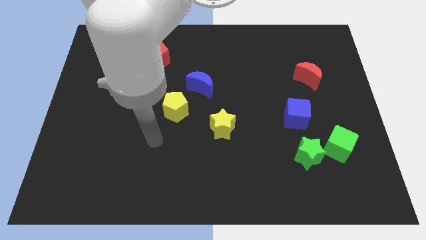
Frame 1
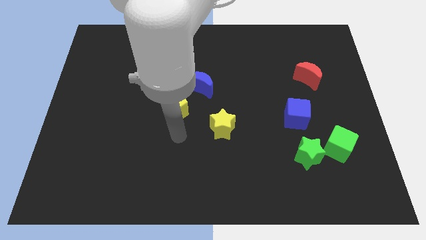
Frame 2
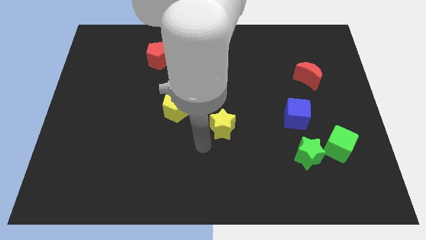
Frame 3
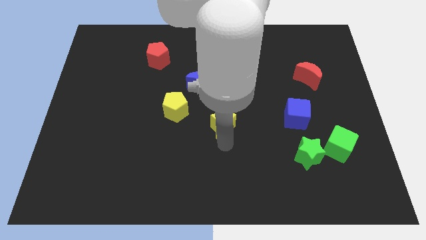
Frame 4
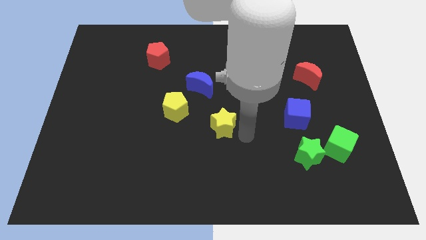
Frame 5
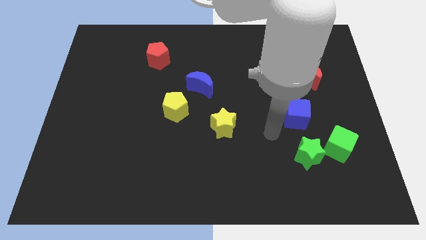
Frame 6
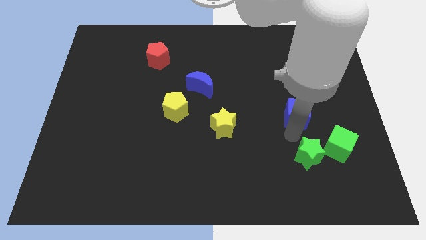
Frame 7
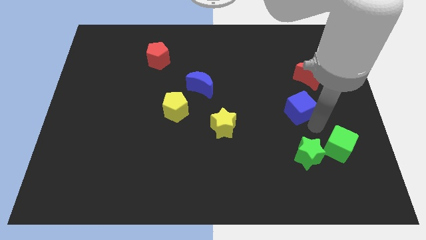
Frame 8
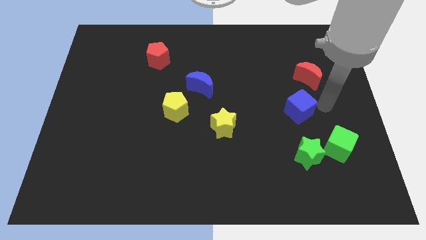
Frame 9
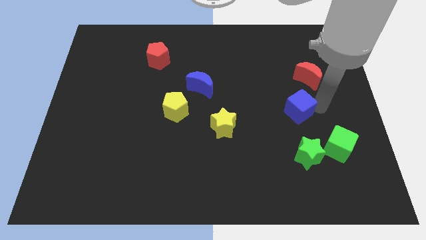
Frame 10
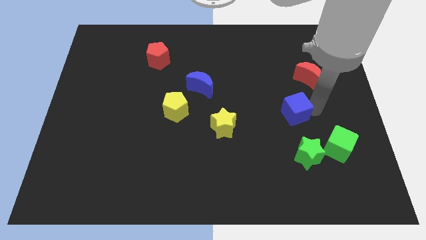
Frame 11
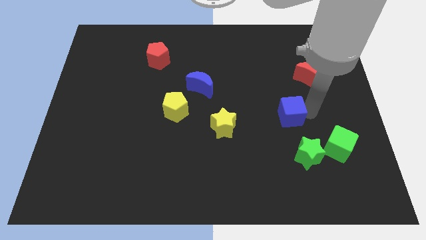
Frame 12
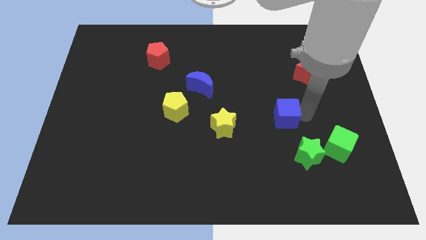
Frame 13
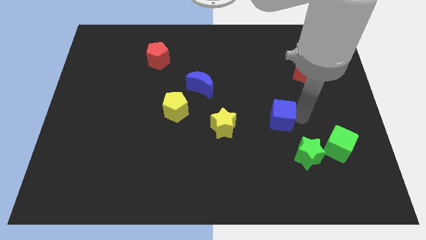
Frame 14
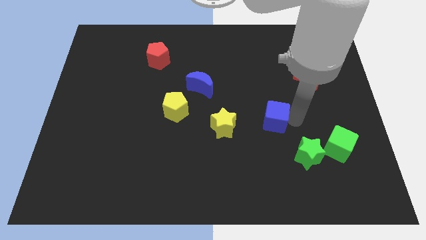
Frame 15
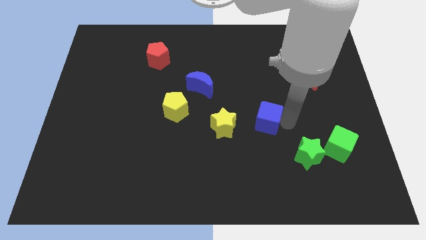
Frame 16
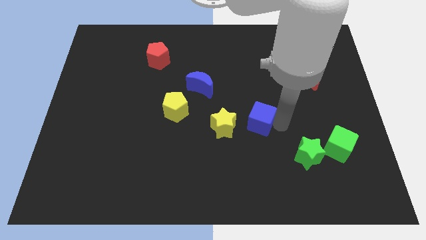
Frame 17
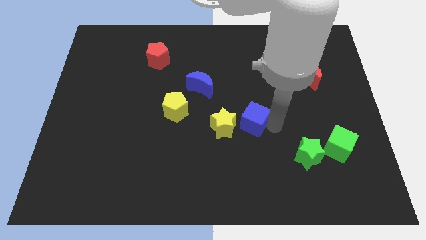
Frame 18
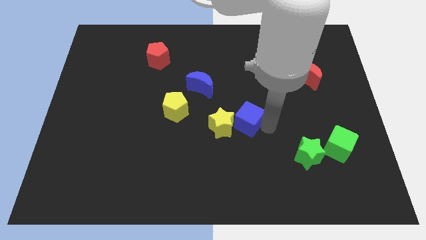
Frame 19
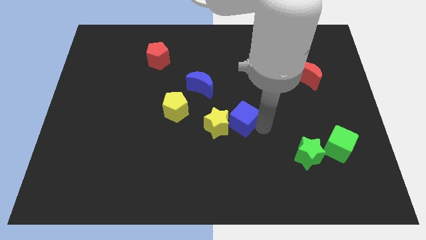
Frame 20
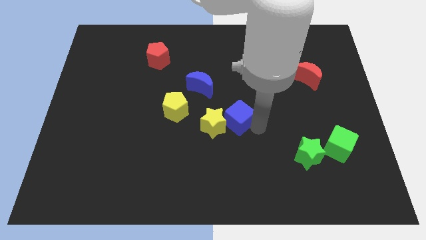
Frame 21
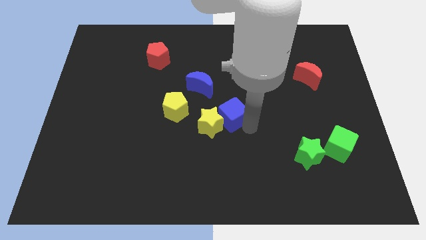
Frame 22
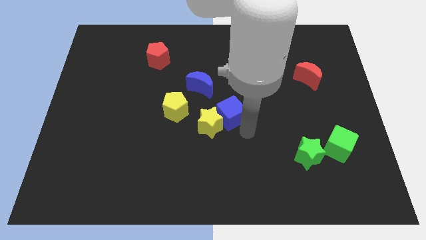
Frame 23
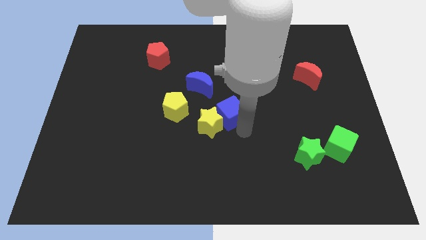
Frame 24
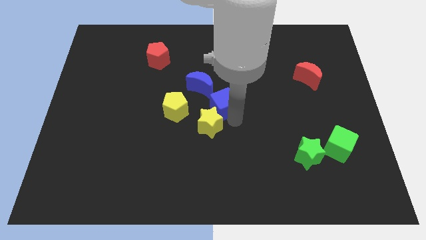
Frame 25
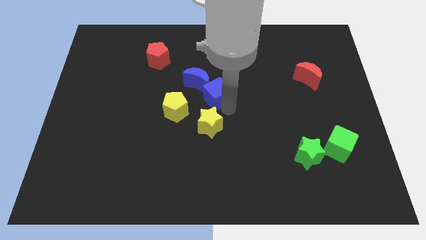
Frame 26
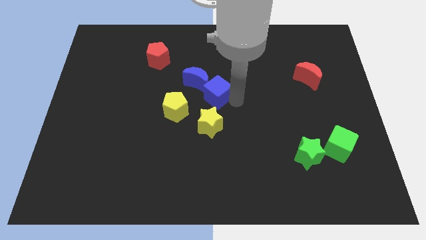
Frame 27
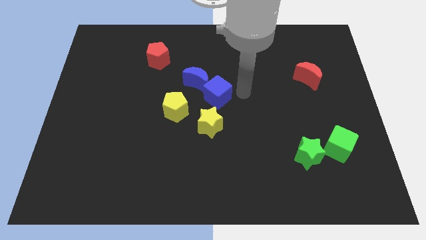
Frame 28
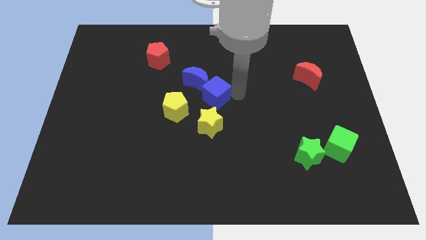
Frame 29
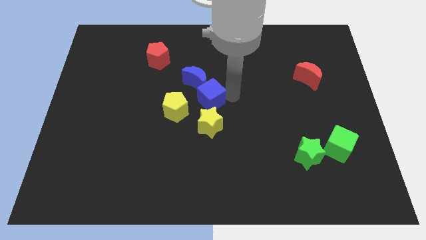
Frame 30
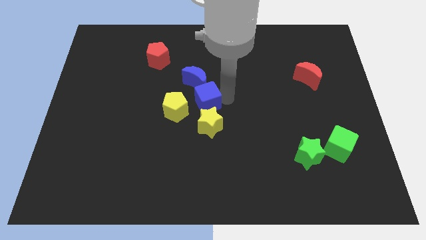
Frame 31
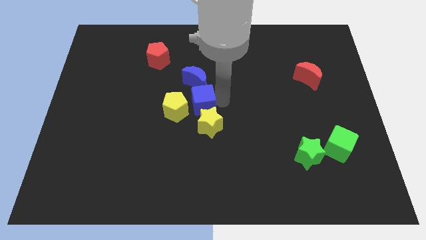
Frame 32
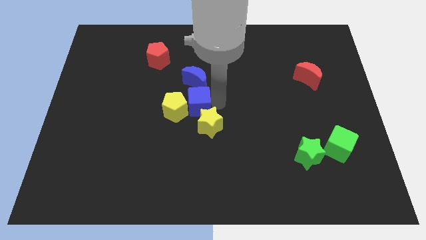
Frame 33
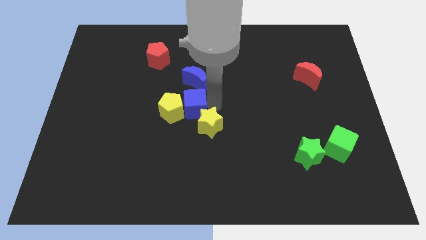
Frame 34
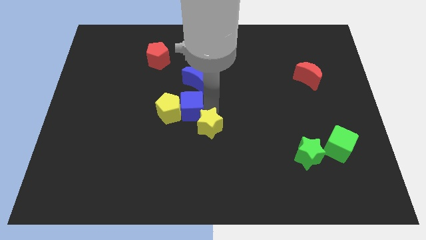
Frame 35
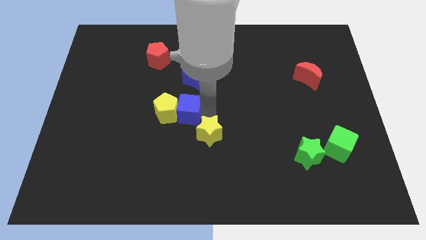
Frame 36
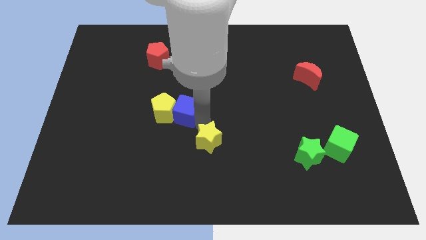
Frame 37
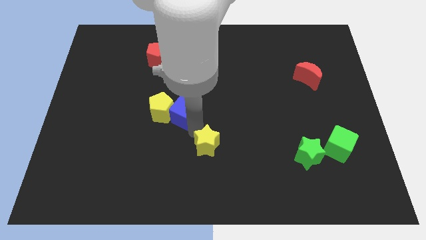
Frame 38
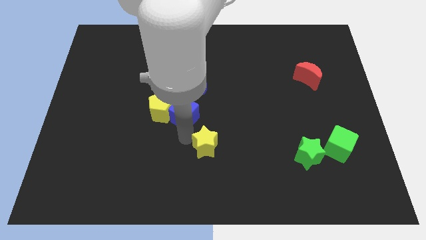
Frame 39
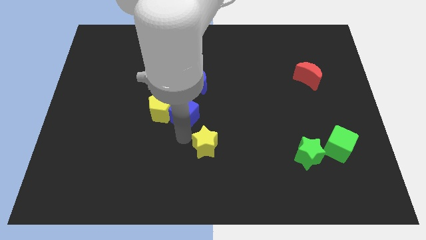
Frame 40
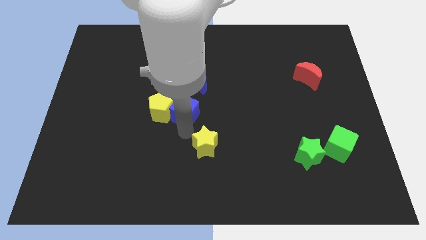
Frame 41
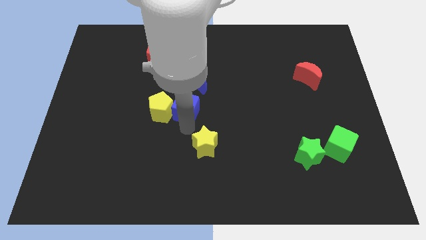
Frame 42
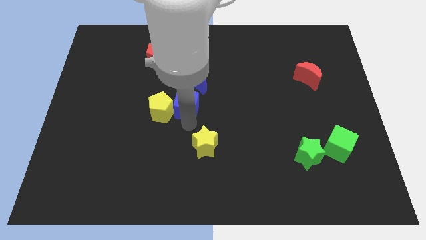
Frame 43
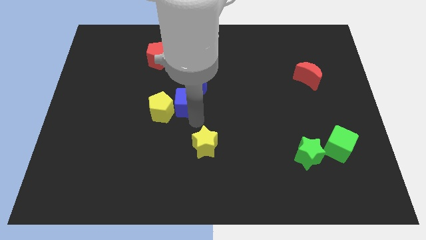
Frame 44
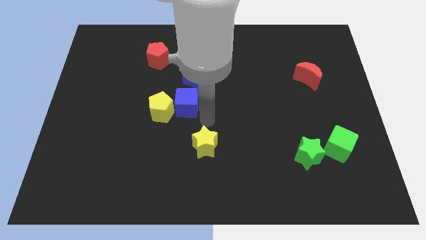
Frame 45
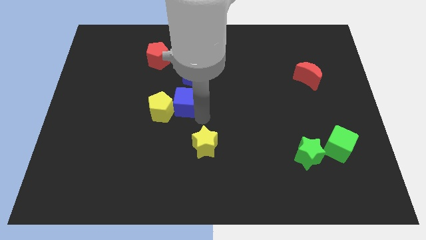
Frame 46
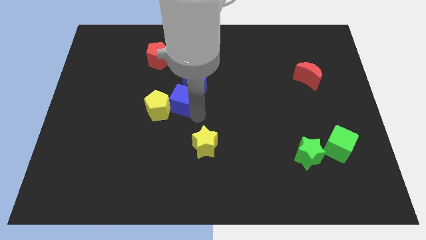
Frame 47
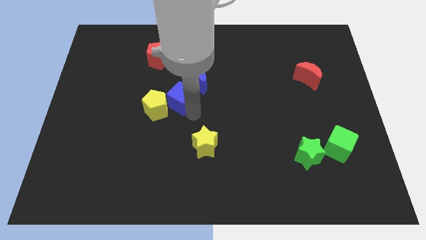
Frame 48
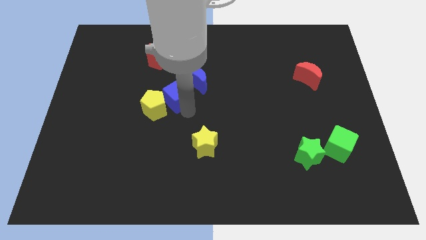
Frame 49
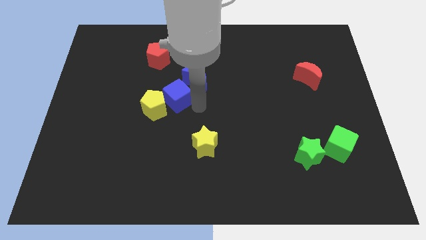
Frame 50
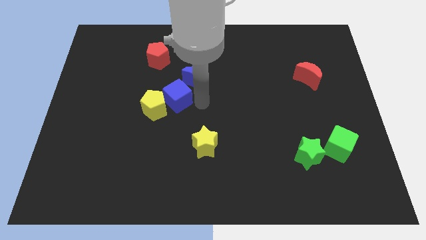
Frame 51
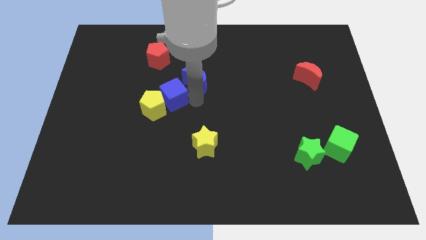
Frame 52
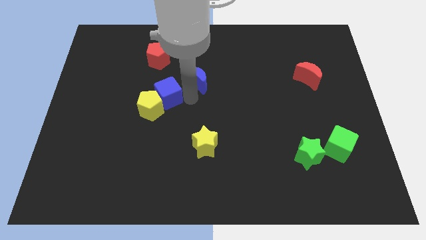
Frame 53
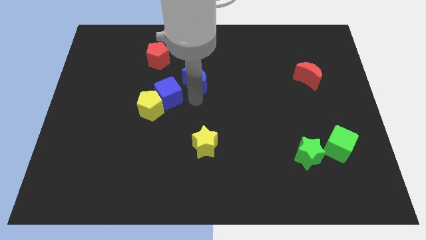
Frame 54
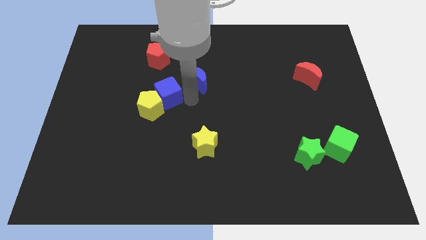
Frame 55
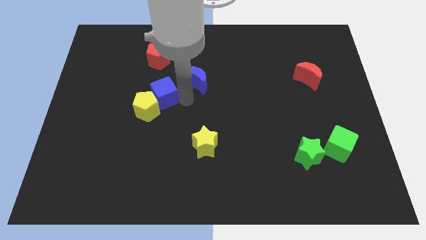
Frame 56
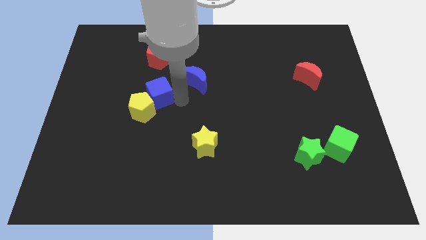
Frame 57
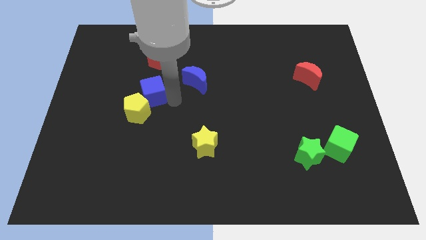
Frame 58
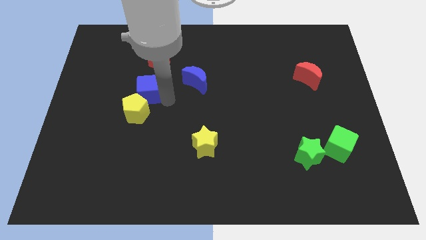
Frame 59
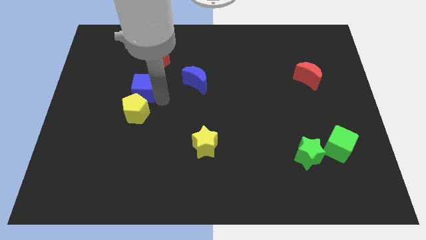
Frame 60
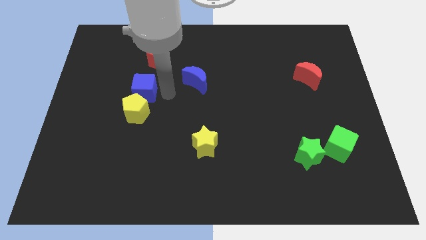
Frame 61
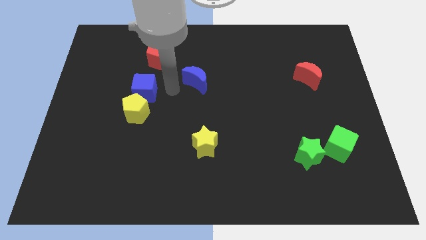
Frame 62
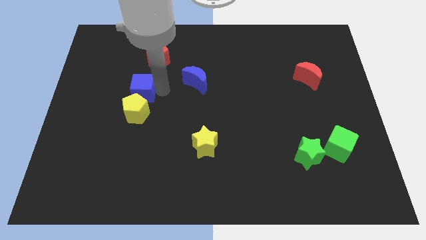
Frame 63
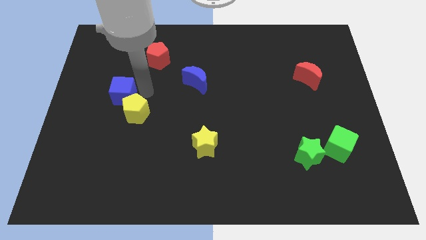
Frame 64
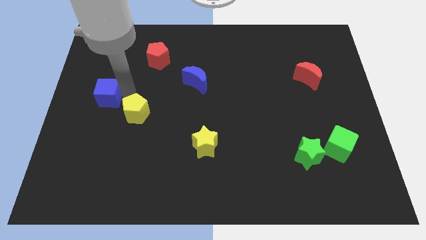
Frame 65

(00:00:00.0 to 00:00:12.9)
move the blue cube to the left side of the board

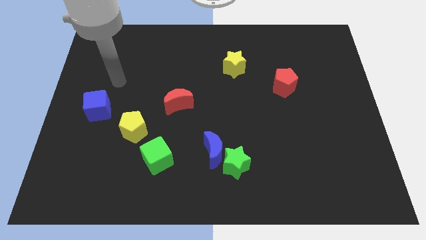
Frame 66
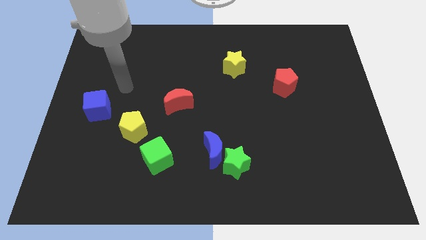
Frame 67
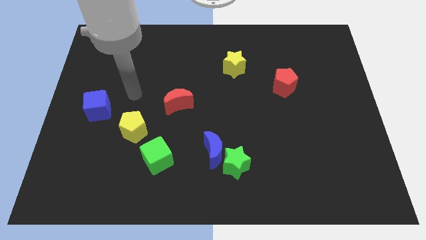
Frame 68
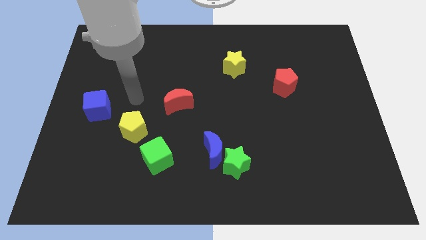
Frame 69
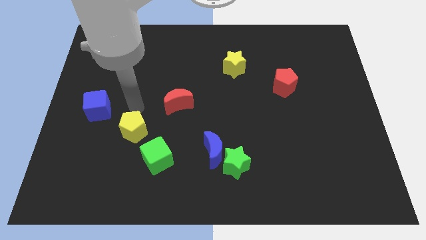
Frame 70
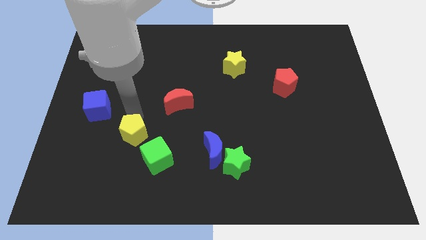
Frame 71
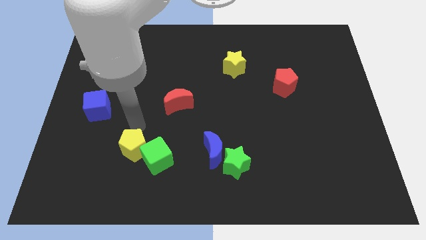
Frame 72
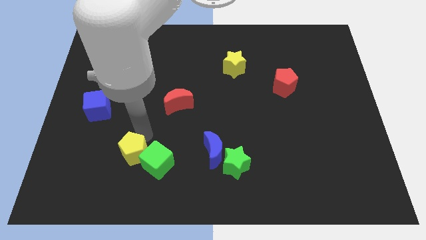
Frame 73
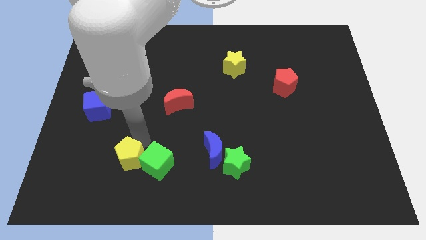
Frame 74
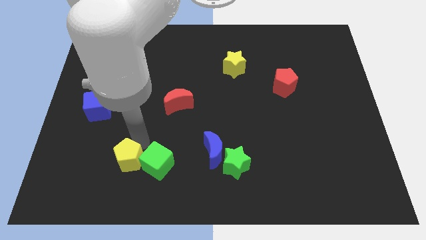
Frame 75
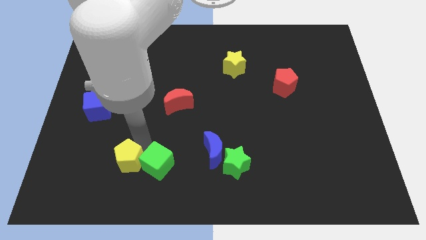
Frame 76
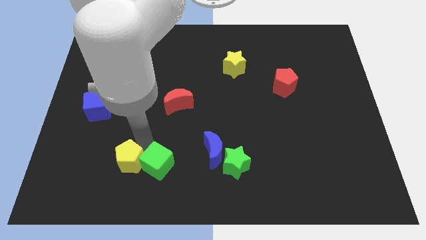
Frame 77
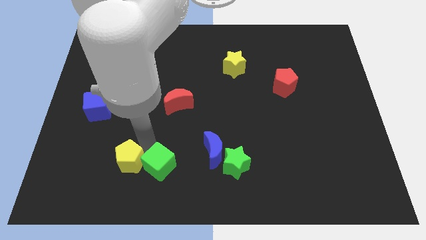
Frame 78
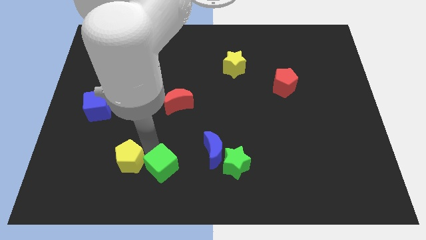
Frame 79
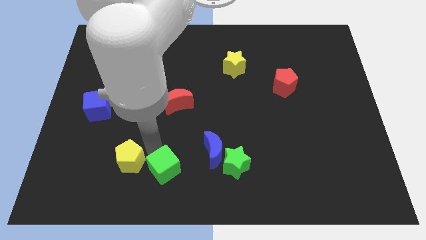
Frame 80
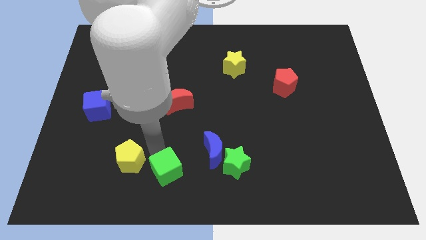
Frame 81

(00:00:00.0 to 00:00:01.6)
put the green cube to the bottom side

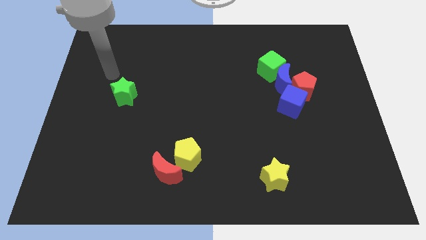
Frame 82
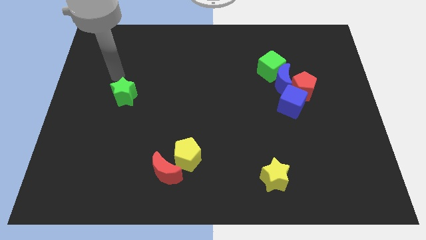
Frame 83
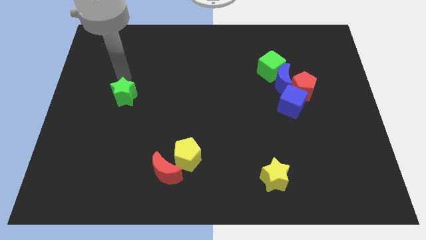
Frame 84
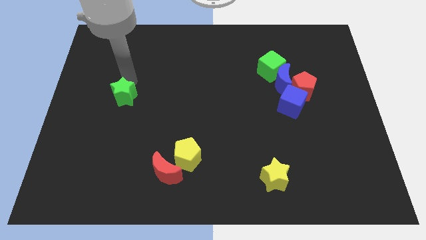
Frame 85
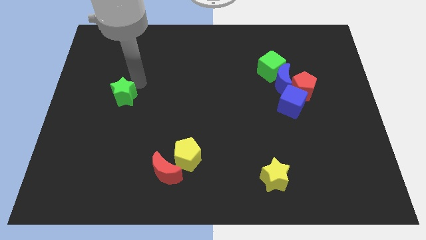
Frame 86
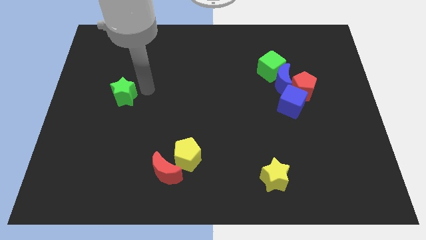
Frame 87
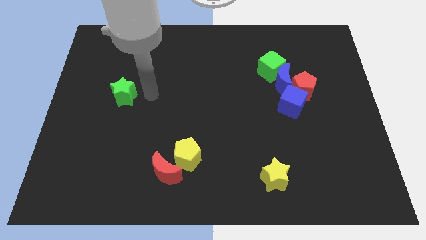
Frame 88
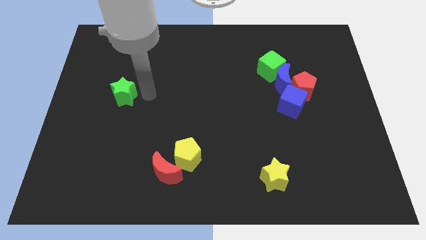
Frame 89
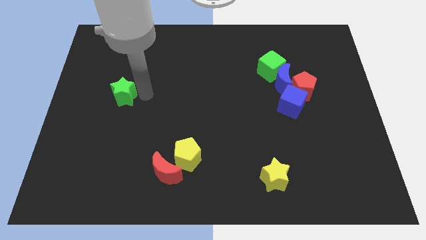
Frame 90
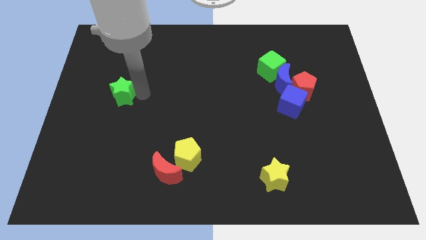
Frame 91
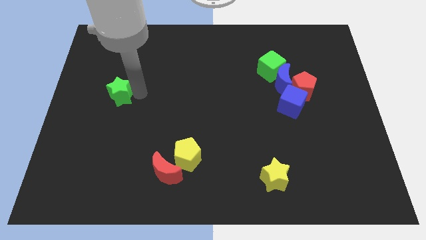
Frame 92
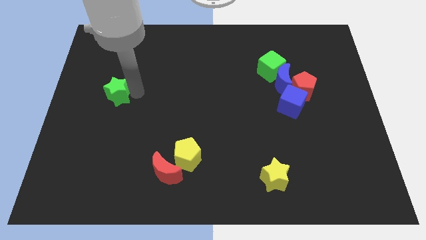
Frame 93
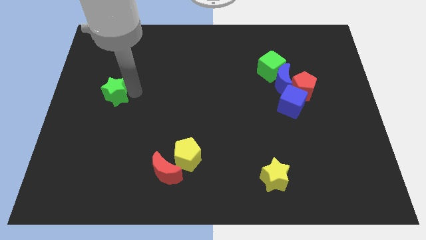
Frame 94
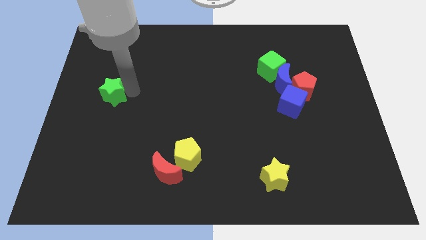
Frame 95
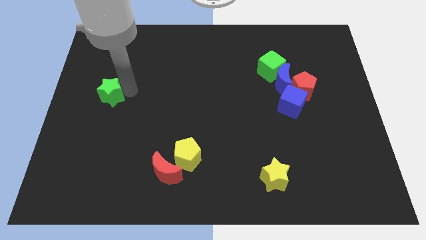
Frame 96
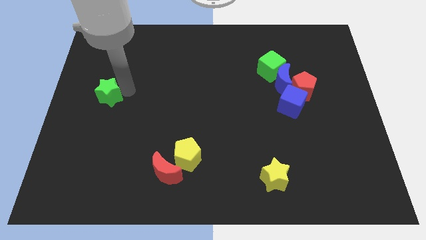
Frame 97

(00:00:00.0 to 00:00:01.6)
put the green star to the center left
